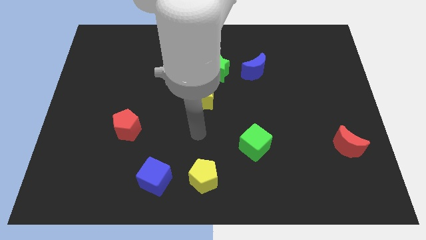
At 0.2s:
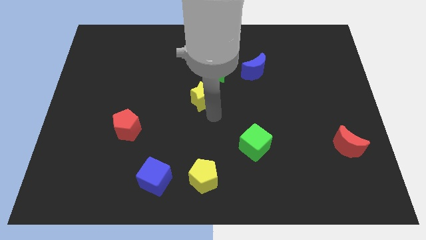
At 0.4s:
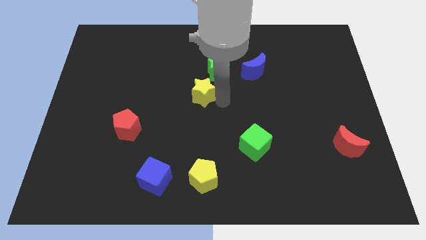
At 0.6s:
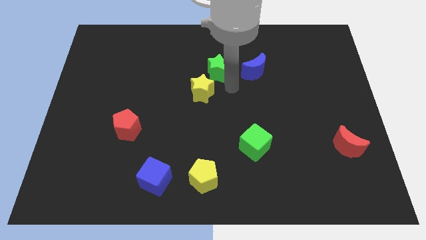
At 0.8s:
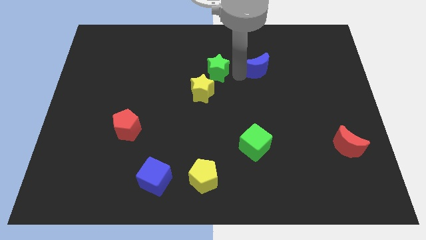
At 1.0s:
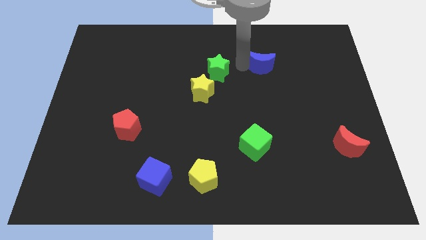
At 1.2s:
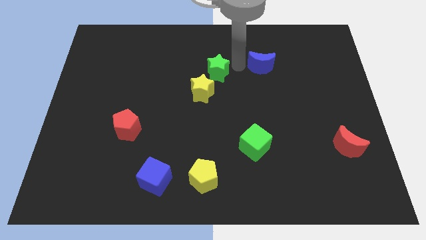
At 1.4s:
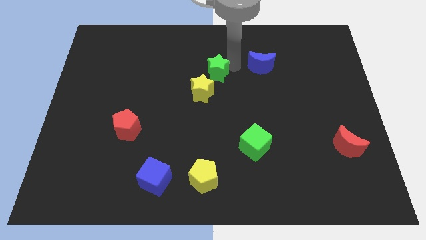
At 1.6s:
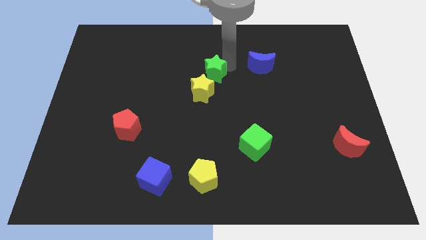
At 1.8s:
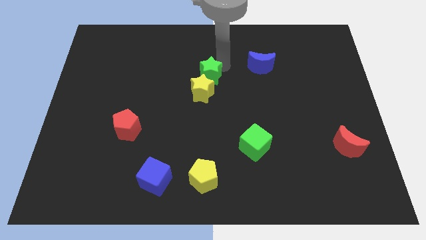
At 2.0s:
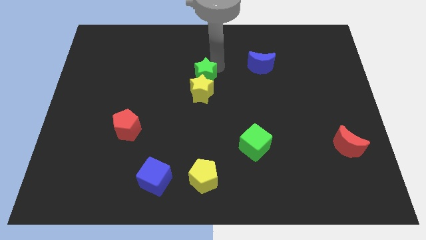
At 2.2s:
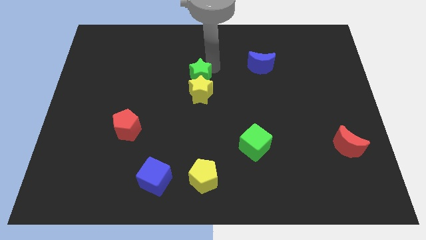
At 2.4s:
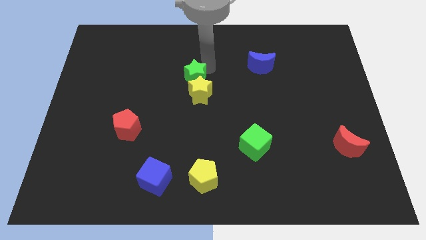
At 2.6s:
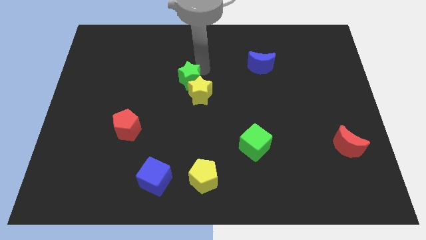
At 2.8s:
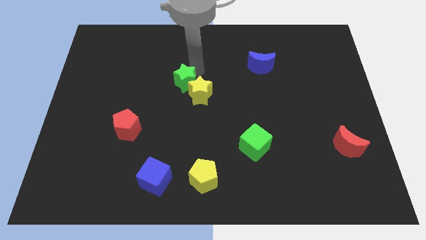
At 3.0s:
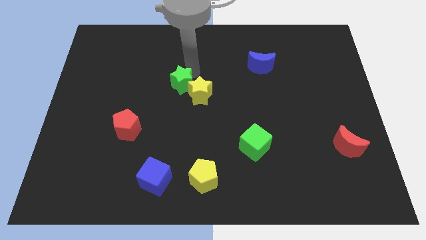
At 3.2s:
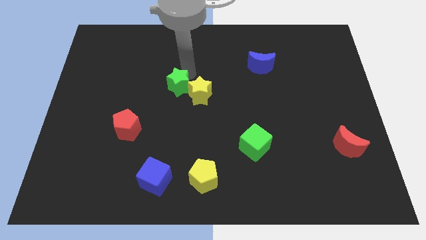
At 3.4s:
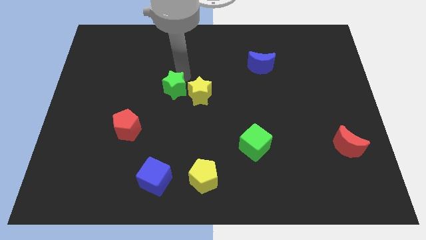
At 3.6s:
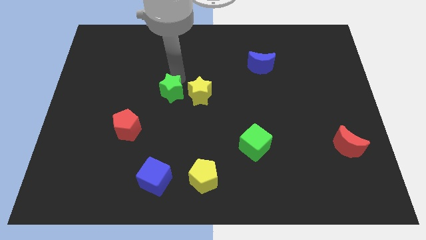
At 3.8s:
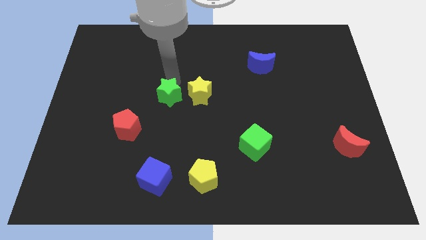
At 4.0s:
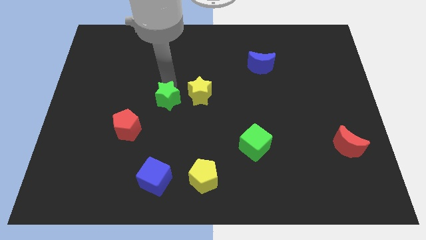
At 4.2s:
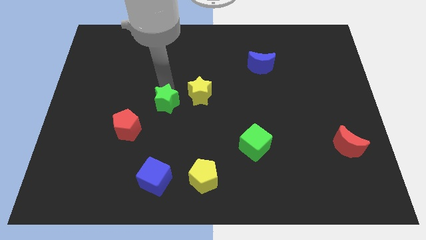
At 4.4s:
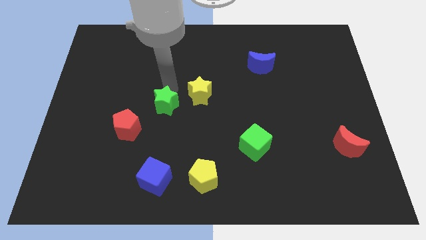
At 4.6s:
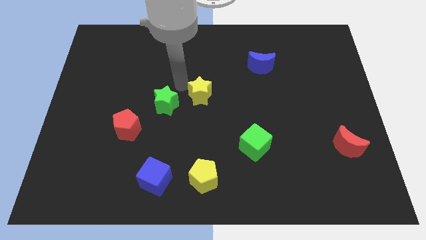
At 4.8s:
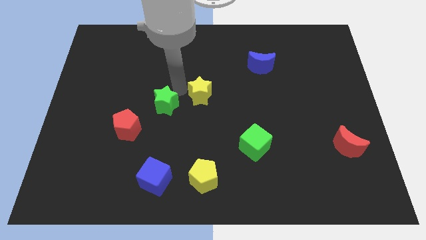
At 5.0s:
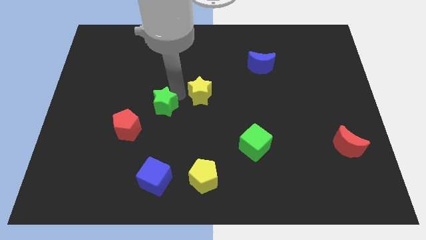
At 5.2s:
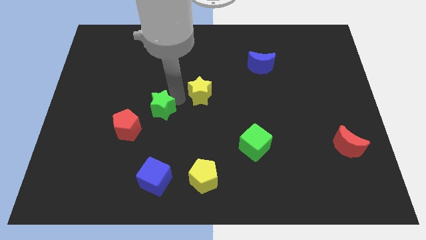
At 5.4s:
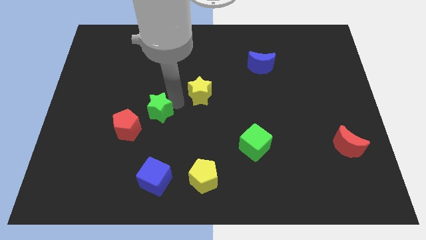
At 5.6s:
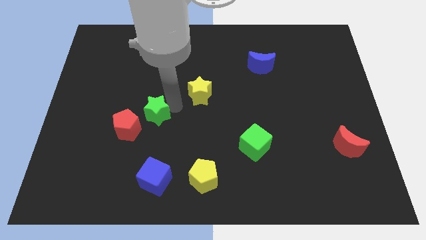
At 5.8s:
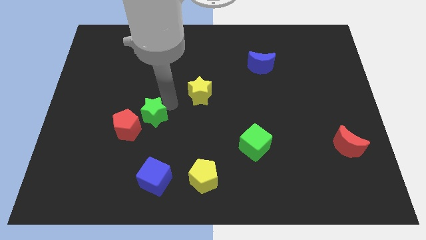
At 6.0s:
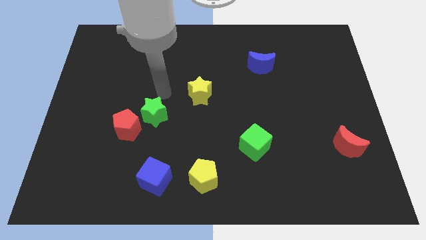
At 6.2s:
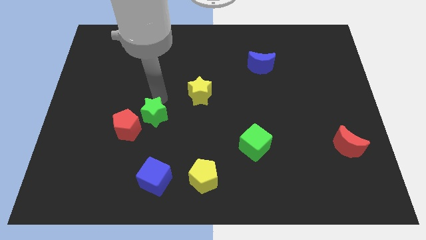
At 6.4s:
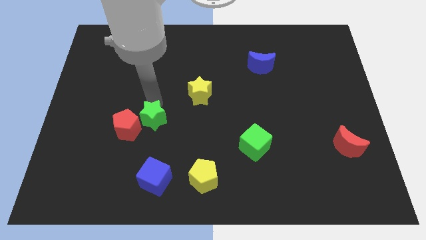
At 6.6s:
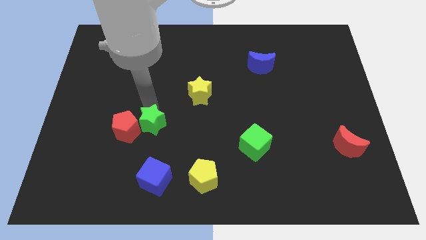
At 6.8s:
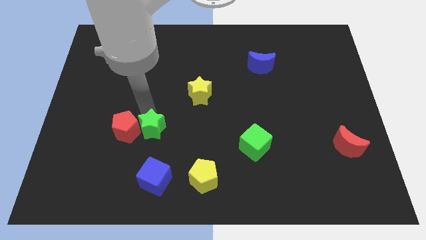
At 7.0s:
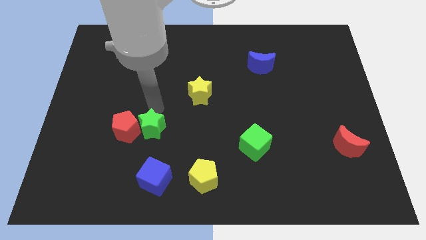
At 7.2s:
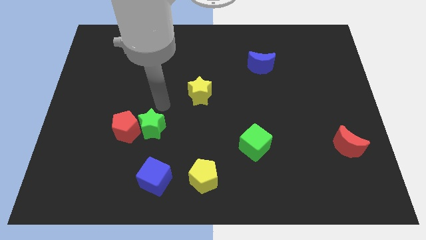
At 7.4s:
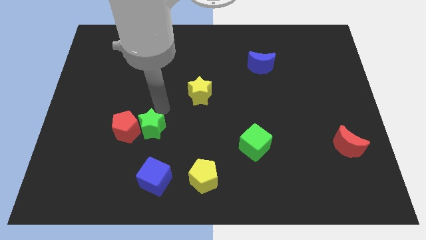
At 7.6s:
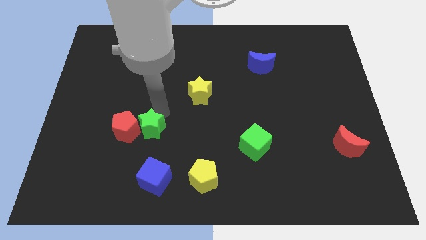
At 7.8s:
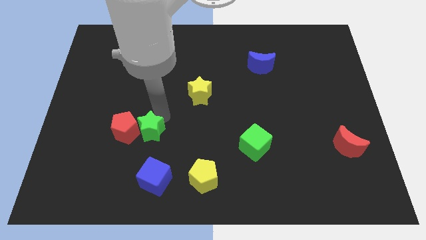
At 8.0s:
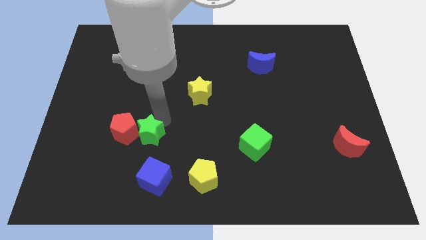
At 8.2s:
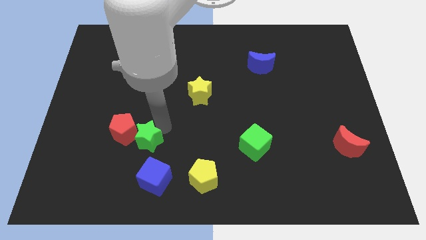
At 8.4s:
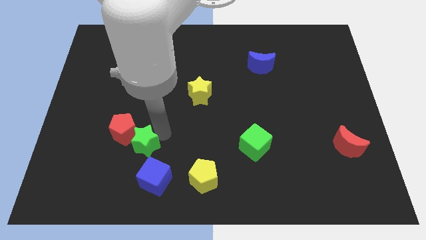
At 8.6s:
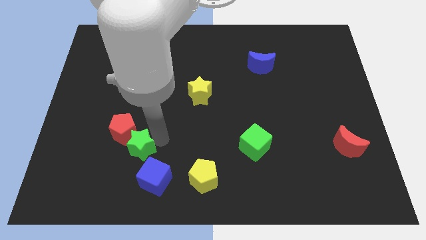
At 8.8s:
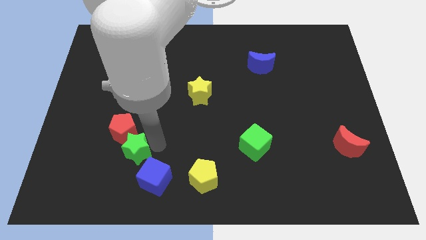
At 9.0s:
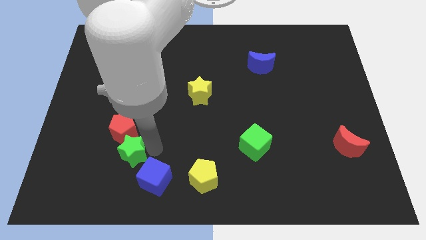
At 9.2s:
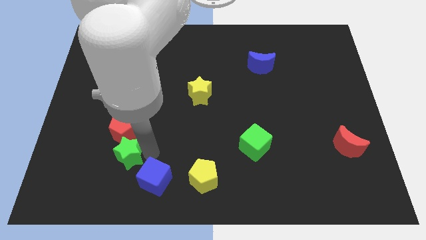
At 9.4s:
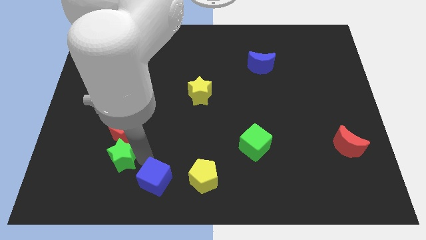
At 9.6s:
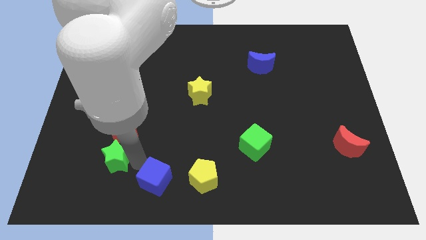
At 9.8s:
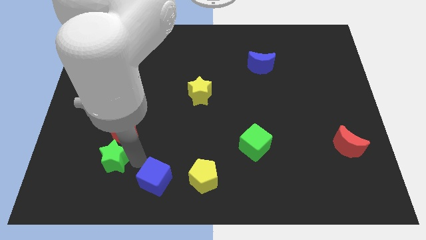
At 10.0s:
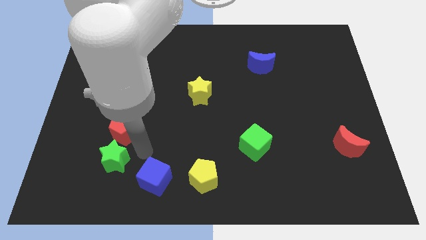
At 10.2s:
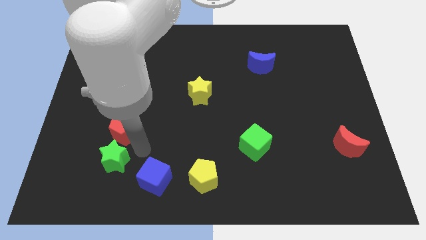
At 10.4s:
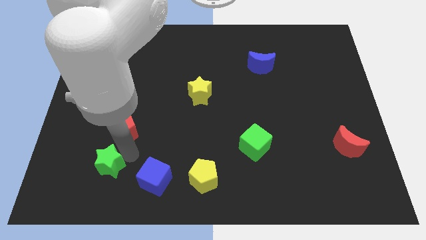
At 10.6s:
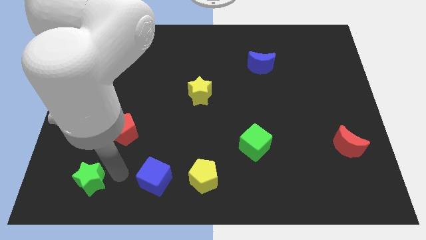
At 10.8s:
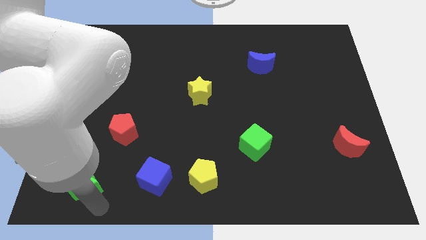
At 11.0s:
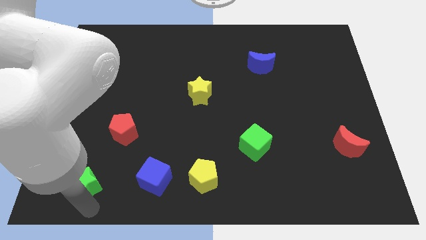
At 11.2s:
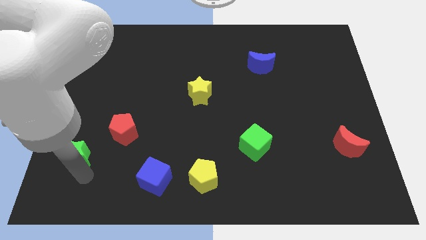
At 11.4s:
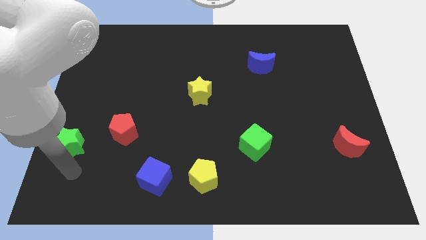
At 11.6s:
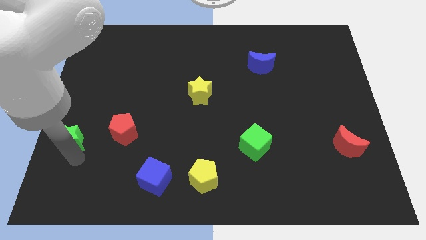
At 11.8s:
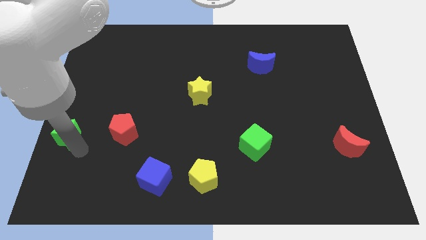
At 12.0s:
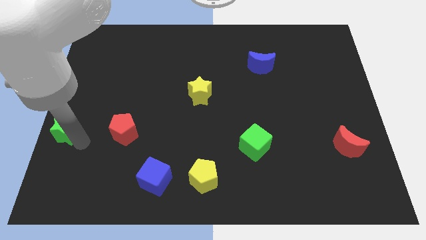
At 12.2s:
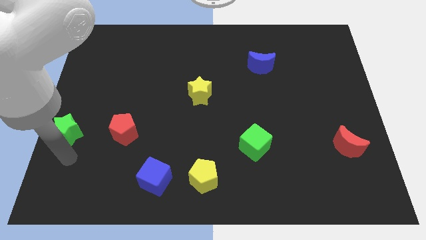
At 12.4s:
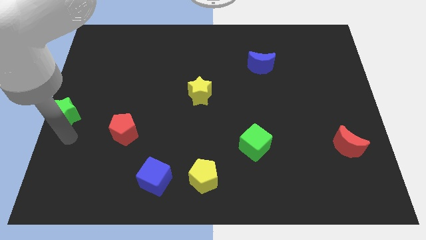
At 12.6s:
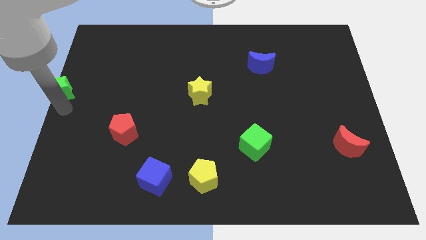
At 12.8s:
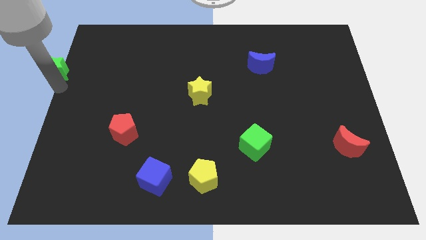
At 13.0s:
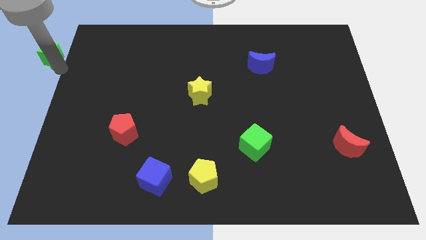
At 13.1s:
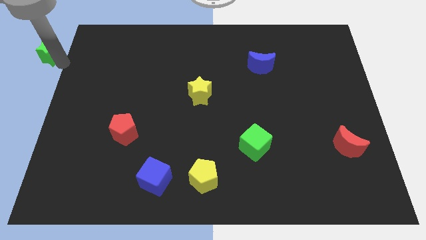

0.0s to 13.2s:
slide the green star to the upper left corner
